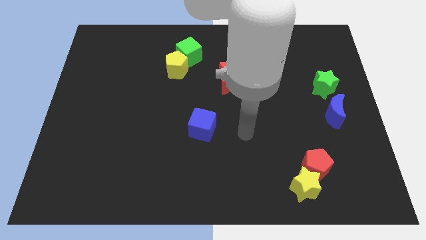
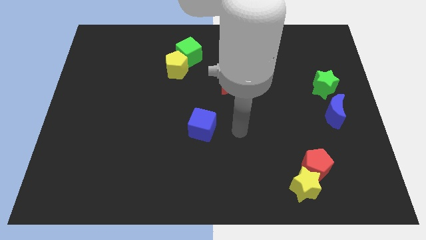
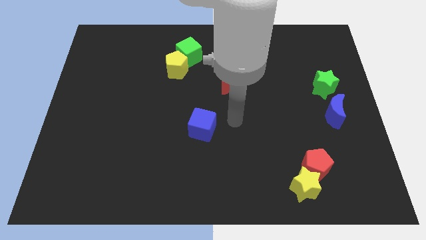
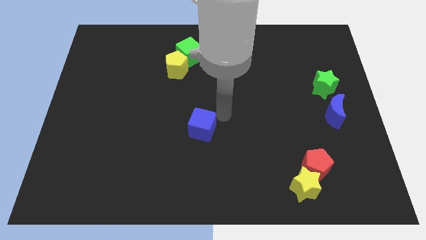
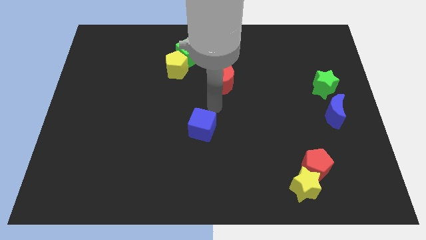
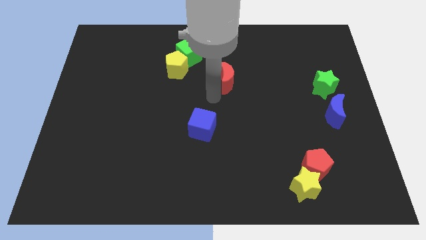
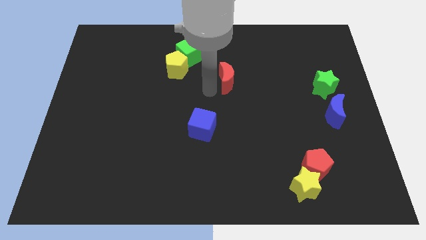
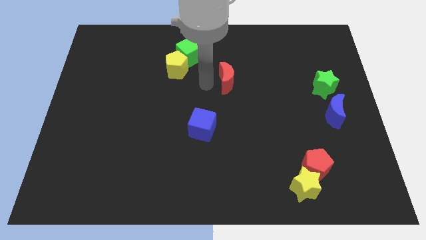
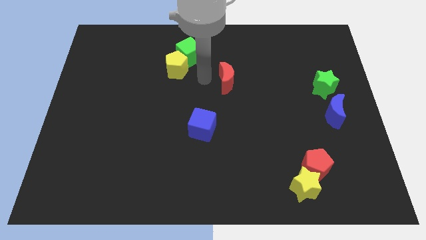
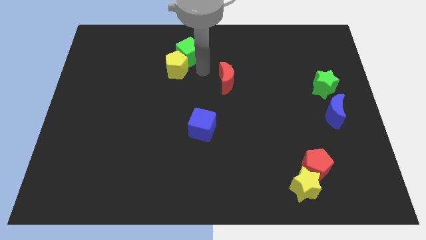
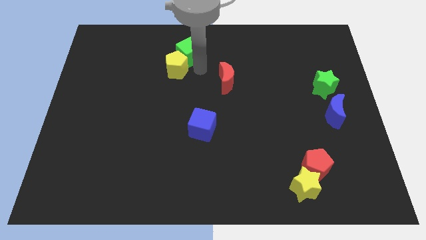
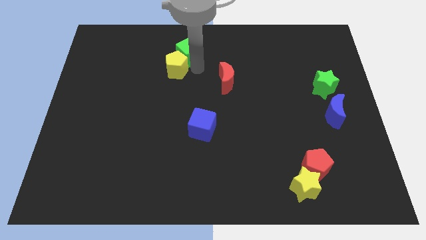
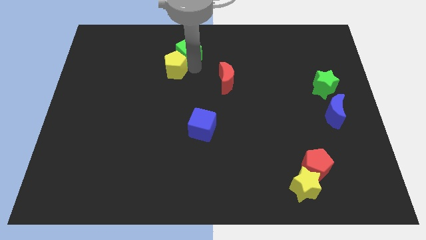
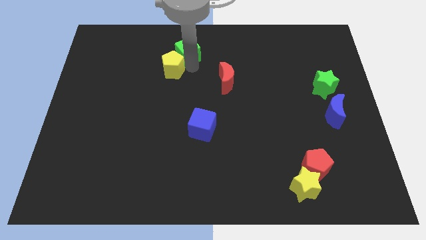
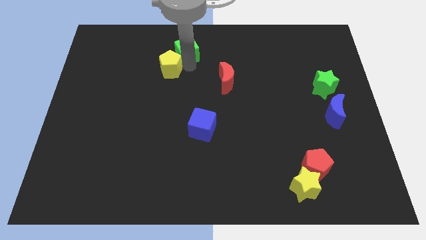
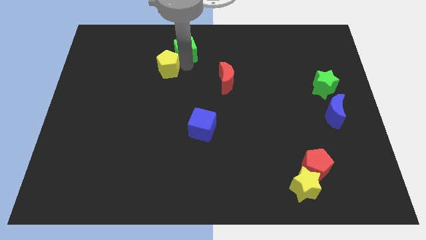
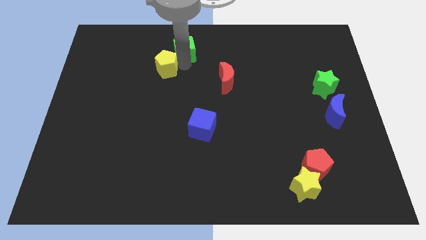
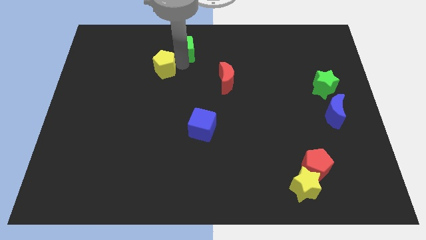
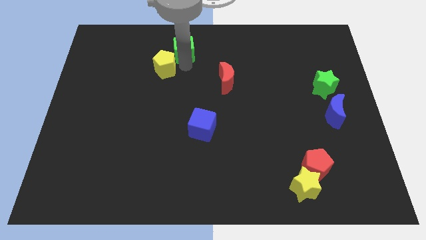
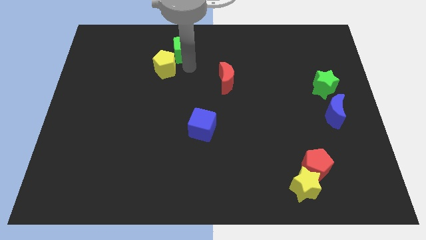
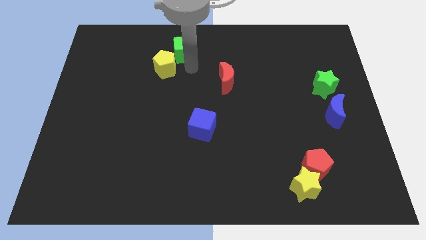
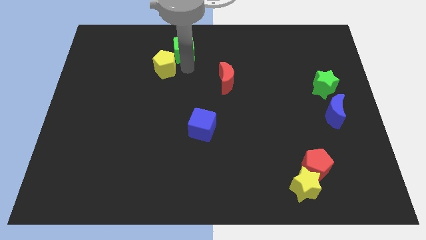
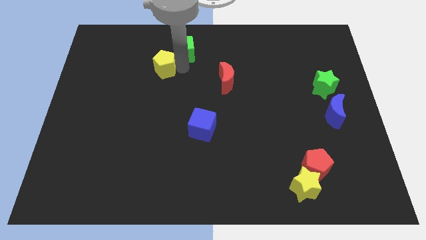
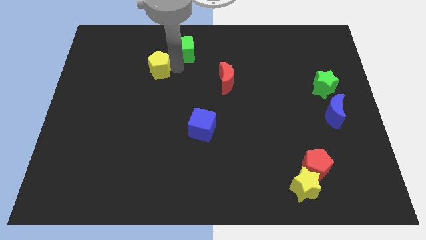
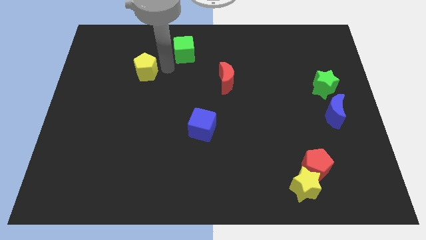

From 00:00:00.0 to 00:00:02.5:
slightly move the yellow pentagon left

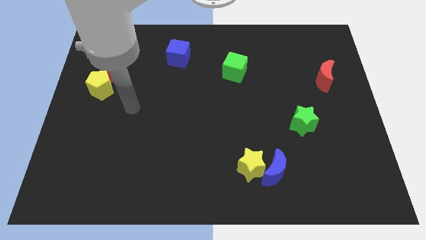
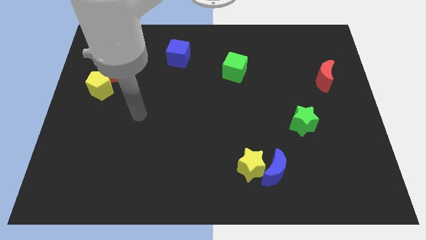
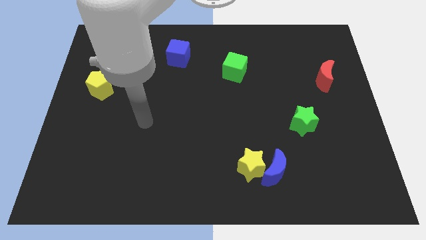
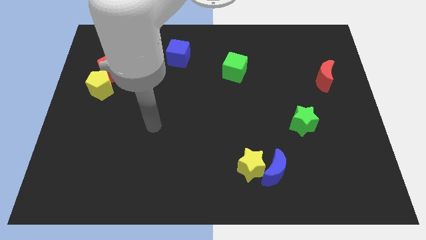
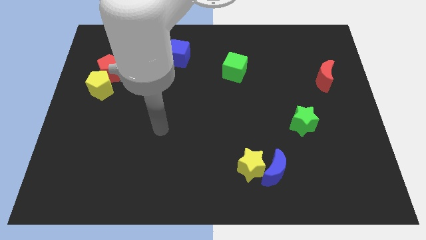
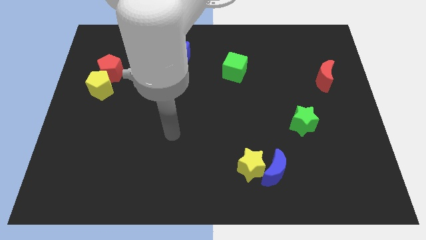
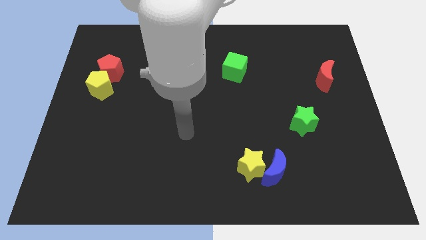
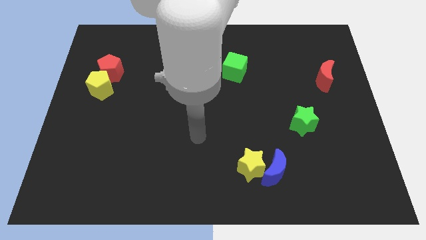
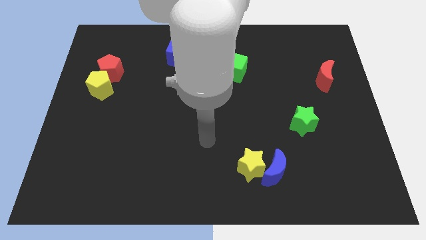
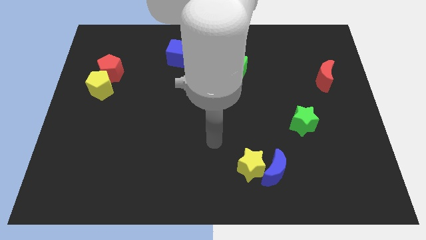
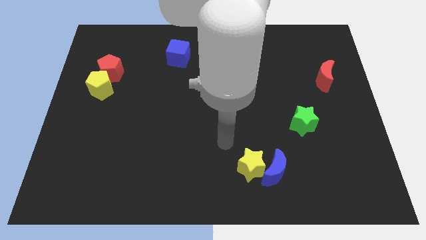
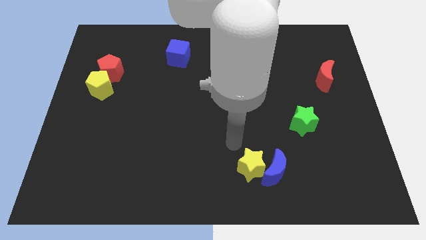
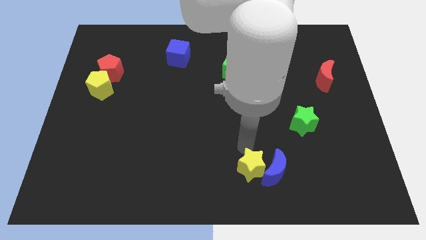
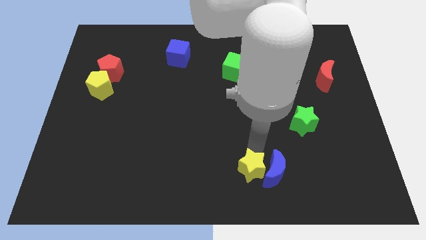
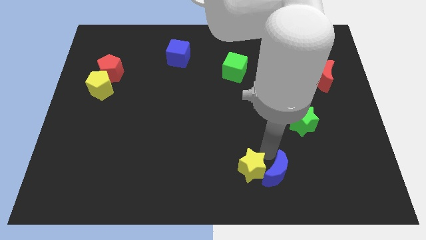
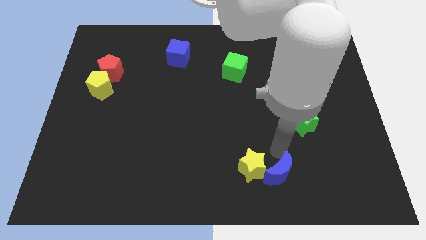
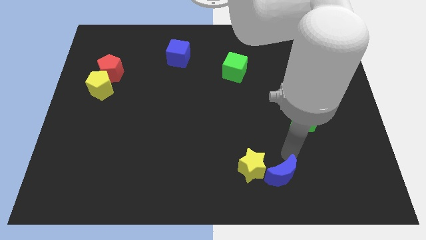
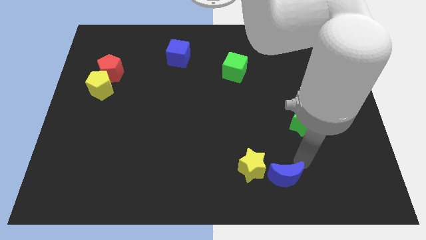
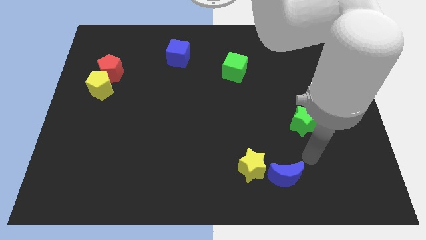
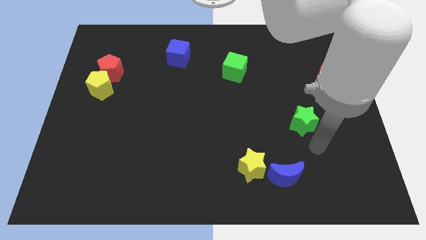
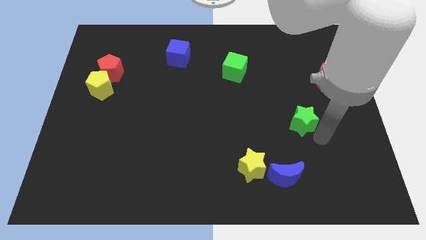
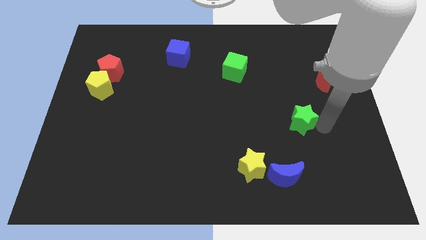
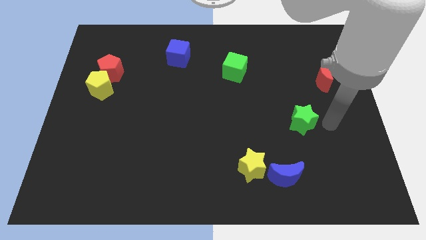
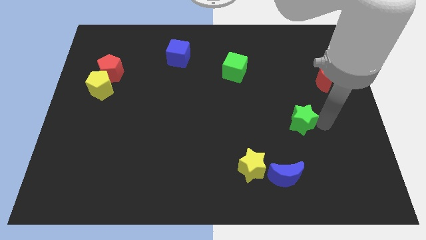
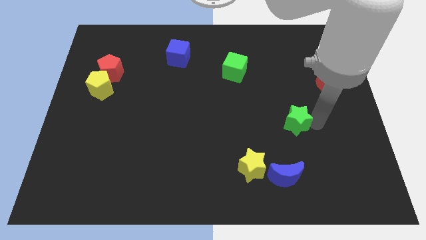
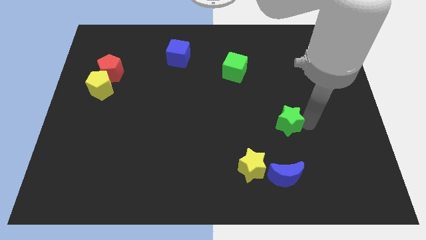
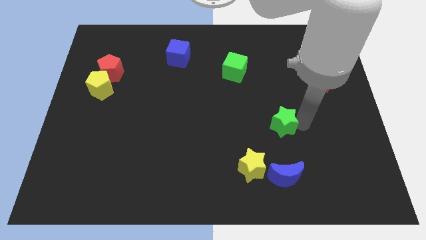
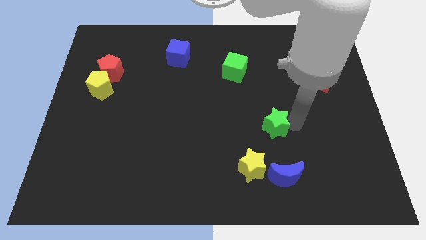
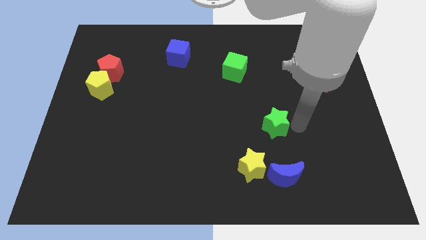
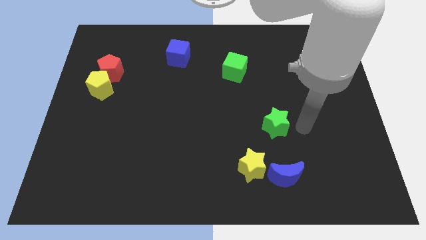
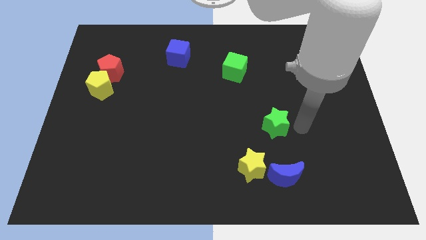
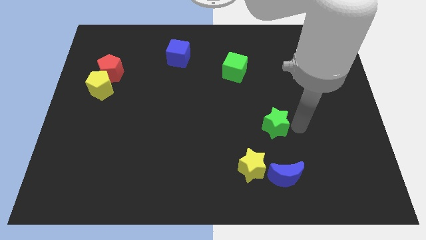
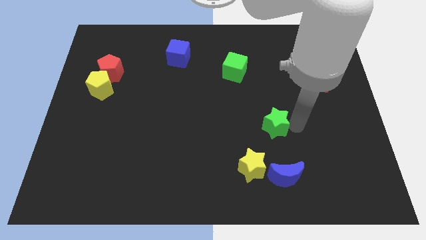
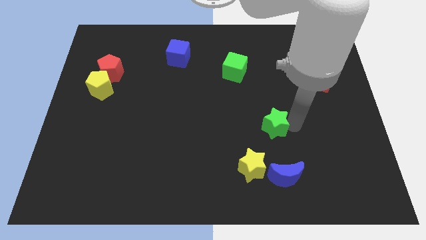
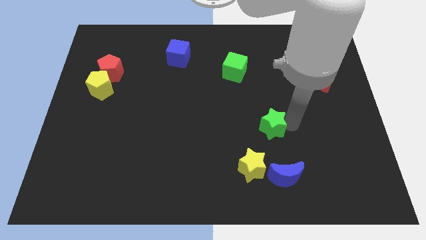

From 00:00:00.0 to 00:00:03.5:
move the green star a little to the left

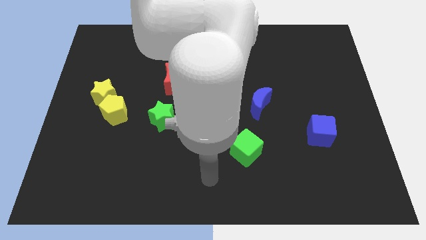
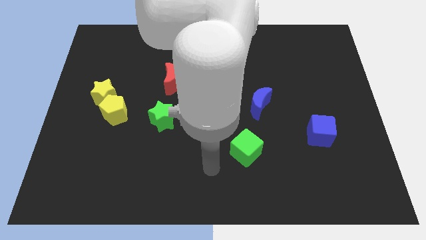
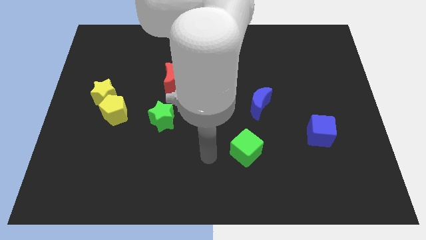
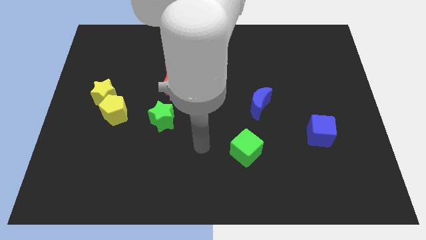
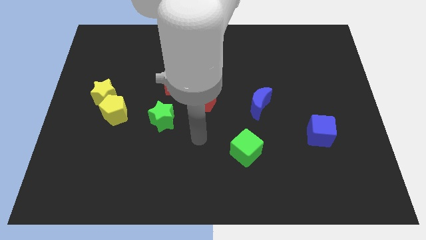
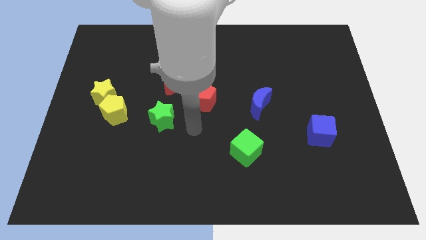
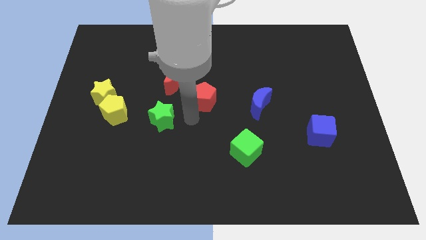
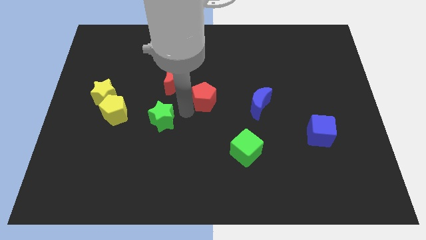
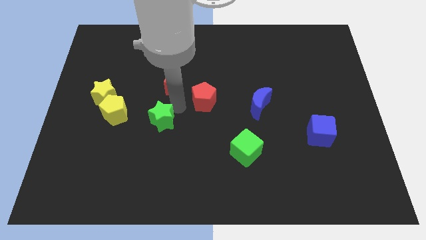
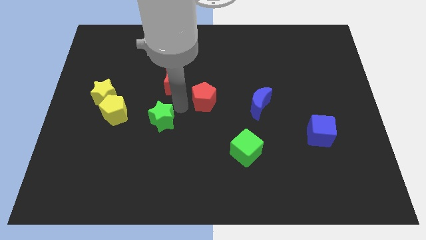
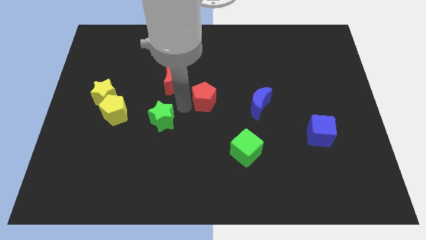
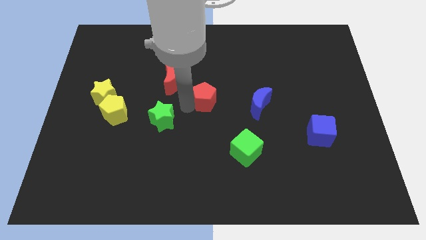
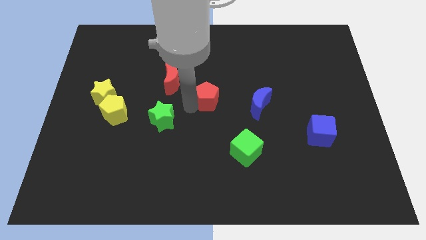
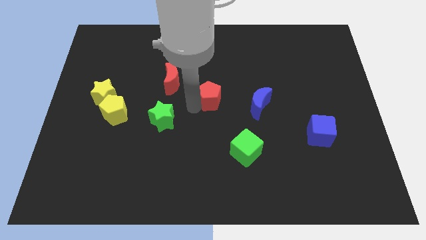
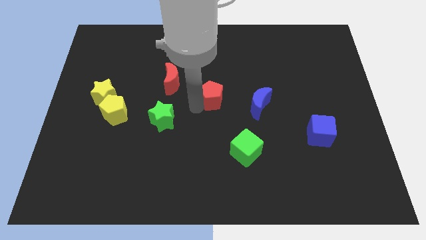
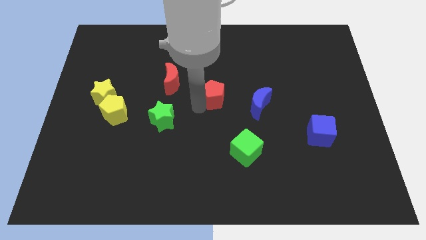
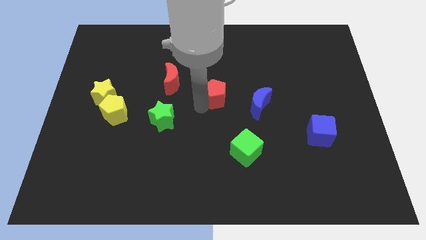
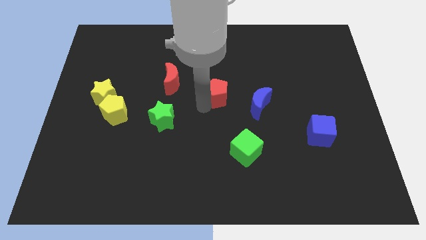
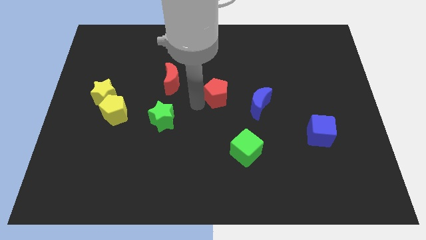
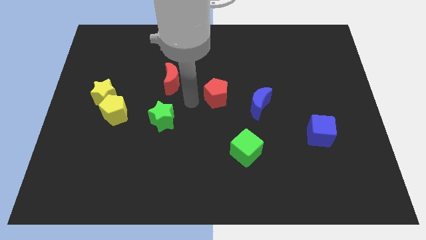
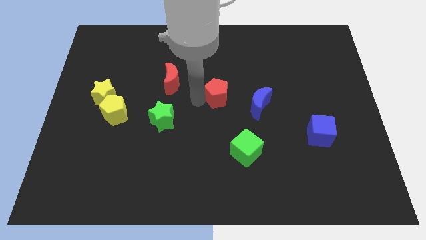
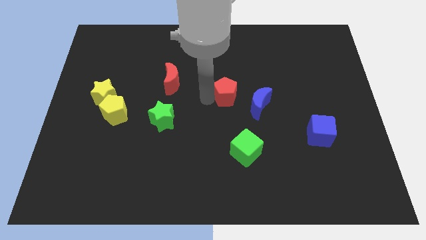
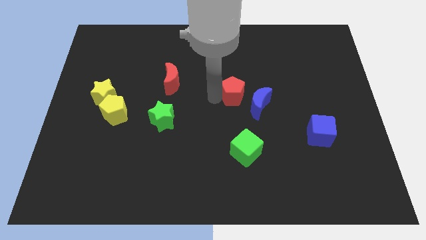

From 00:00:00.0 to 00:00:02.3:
push the red pentagon right a little
